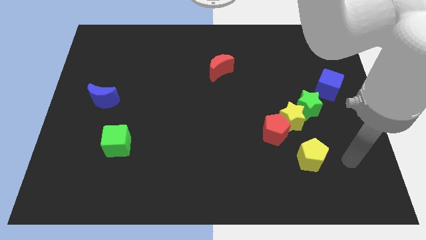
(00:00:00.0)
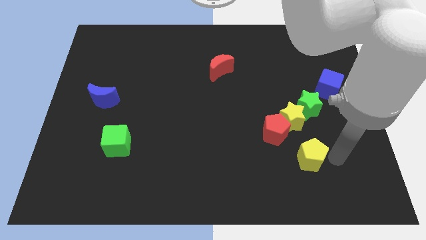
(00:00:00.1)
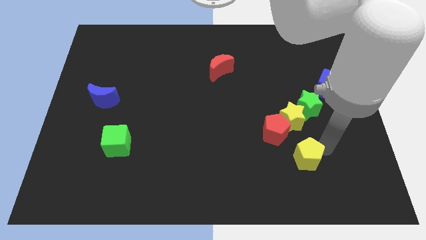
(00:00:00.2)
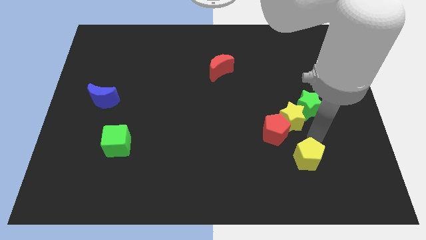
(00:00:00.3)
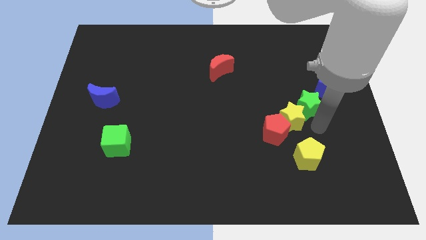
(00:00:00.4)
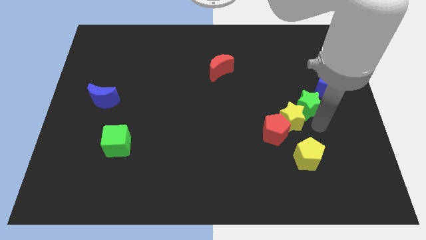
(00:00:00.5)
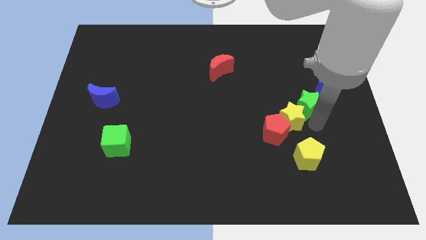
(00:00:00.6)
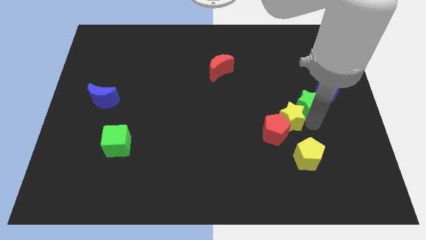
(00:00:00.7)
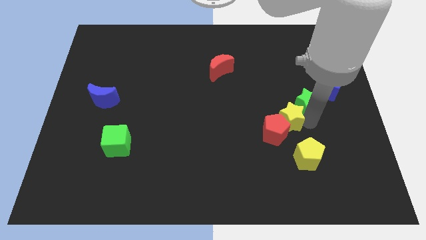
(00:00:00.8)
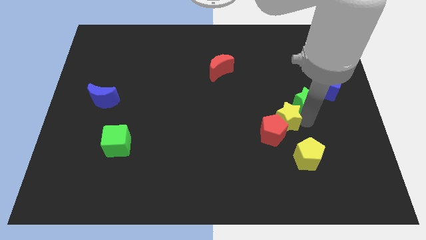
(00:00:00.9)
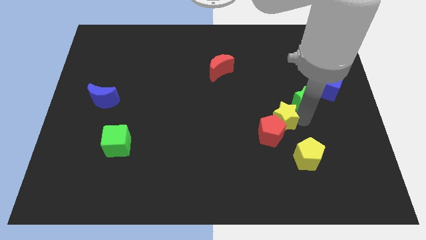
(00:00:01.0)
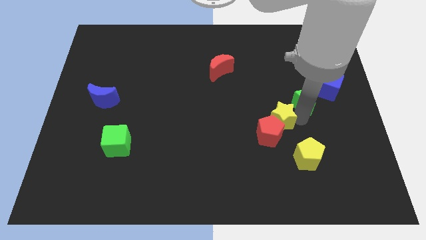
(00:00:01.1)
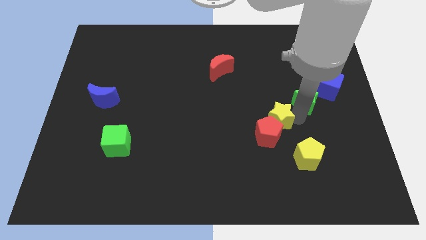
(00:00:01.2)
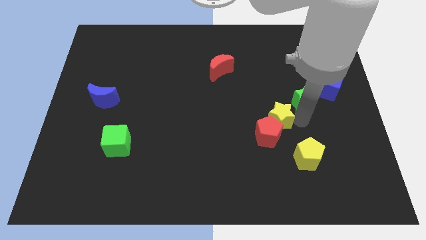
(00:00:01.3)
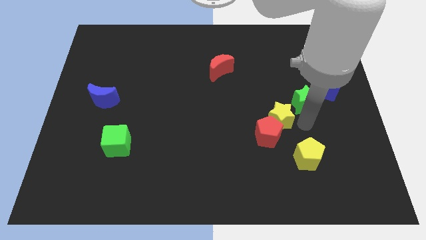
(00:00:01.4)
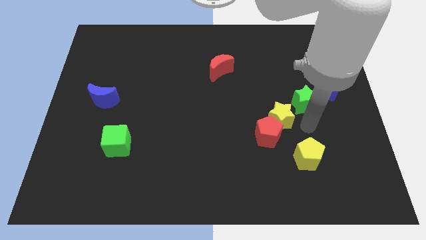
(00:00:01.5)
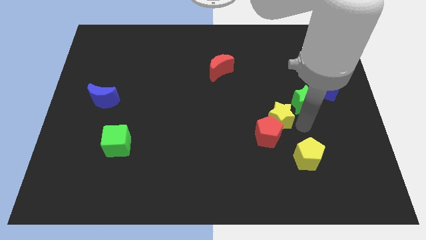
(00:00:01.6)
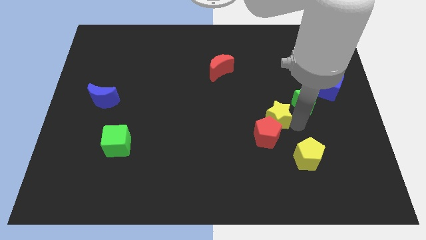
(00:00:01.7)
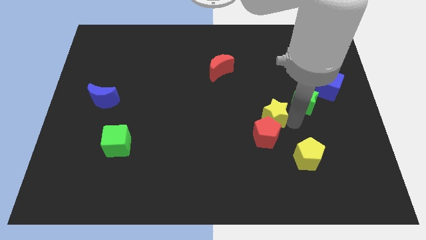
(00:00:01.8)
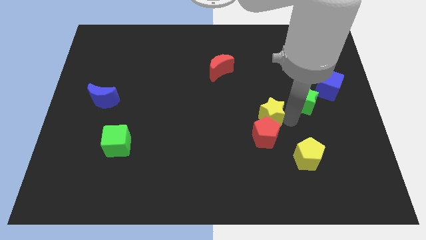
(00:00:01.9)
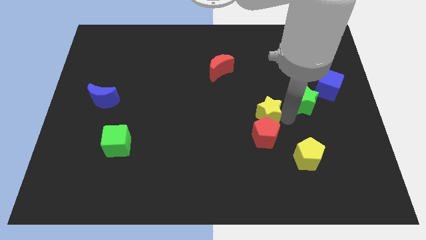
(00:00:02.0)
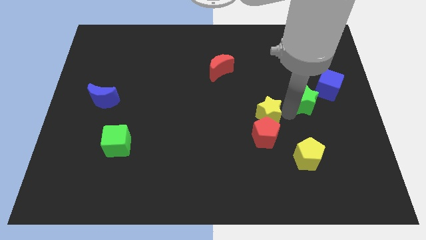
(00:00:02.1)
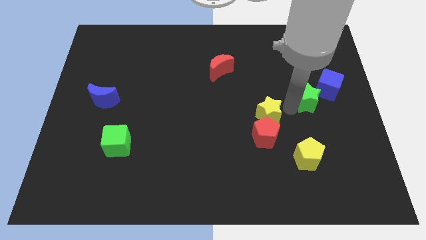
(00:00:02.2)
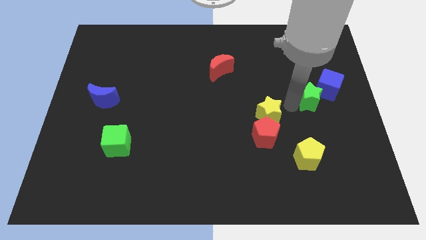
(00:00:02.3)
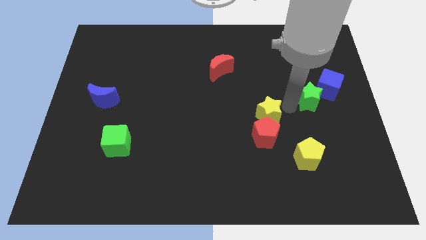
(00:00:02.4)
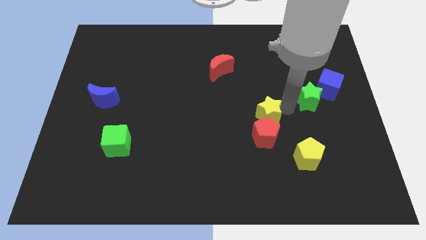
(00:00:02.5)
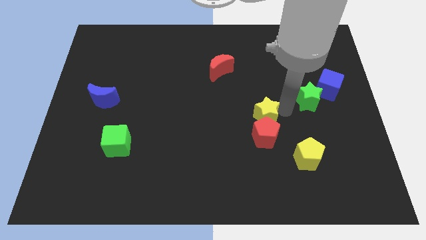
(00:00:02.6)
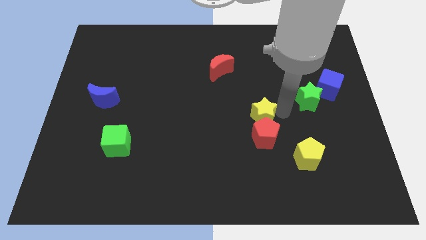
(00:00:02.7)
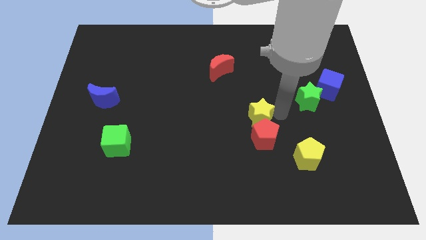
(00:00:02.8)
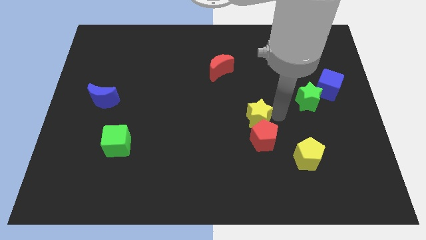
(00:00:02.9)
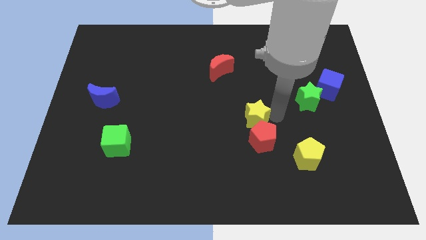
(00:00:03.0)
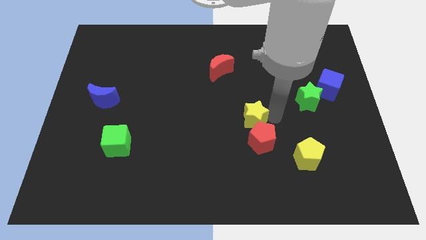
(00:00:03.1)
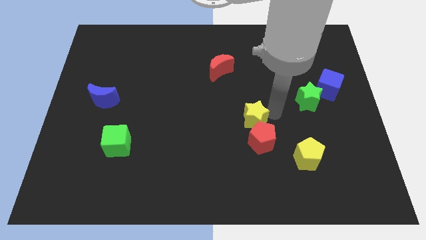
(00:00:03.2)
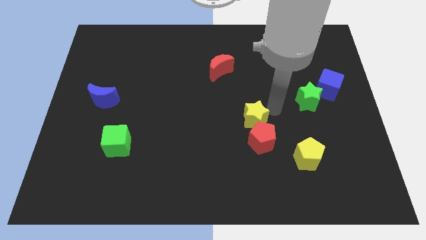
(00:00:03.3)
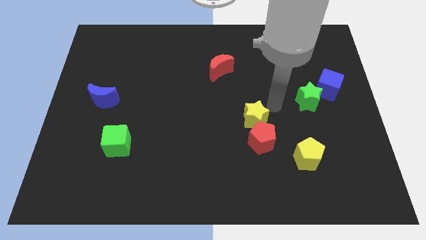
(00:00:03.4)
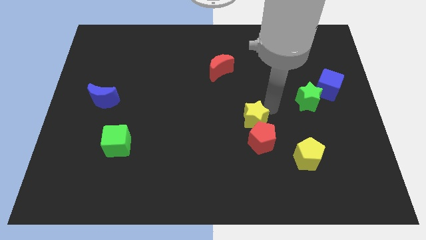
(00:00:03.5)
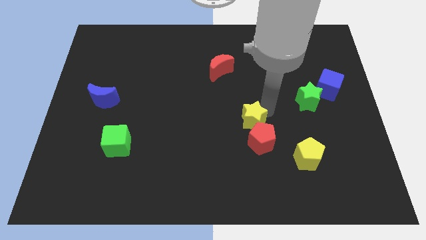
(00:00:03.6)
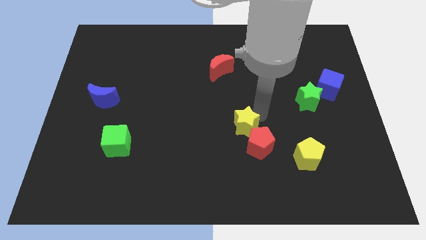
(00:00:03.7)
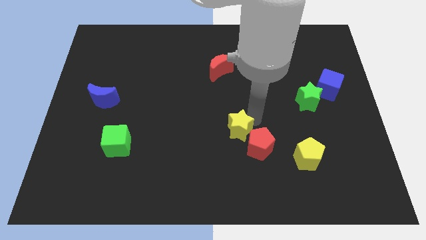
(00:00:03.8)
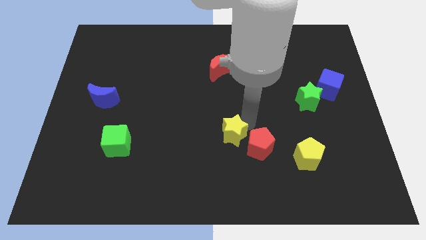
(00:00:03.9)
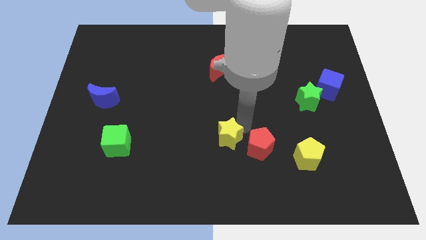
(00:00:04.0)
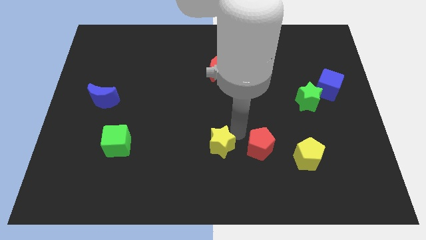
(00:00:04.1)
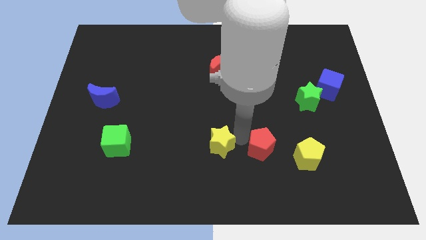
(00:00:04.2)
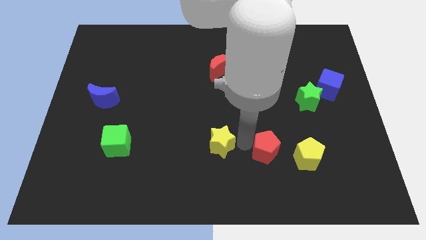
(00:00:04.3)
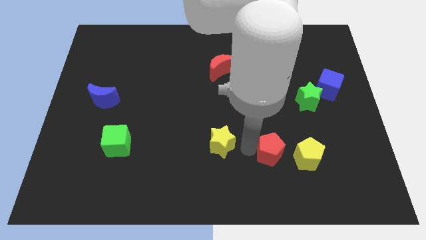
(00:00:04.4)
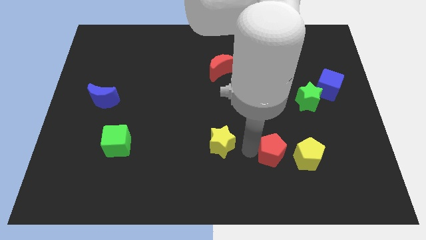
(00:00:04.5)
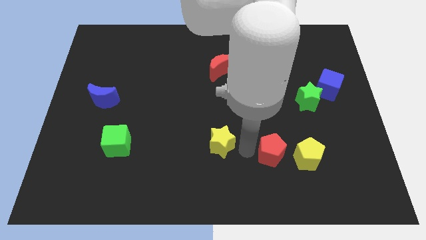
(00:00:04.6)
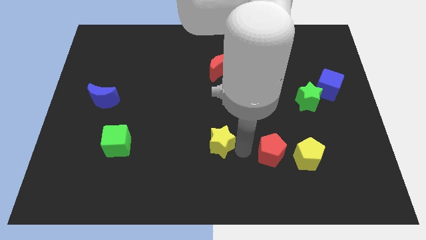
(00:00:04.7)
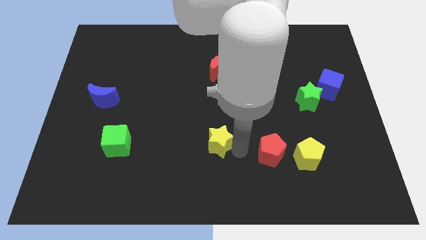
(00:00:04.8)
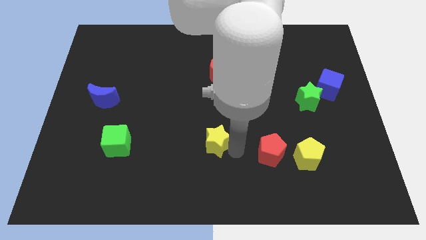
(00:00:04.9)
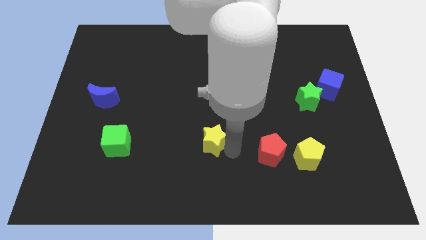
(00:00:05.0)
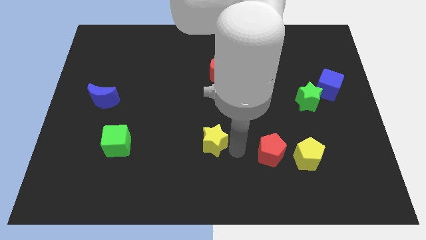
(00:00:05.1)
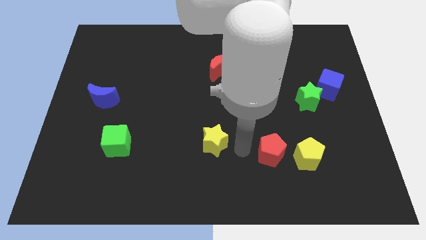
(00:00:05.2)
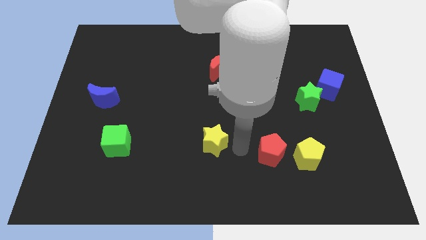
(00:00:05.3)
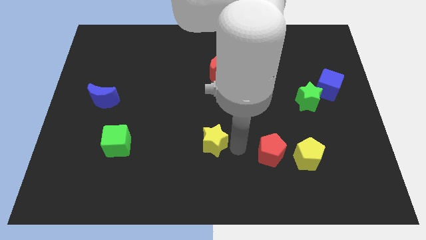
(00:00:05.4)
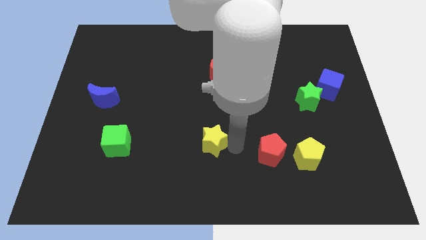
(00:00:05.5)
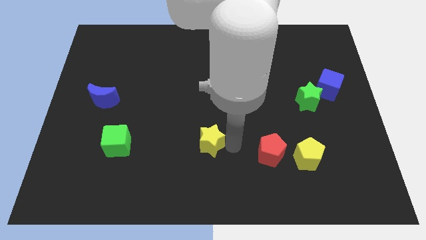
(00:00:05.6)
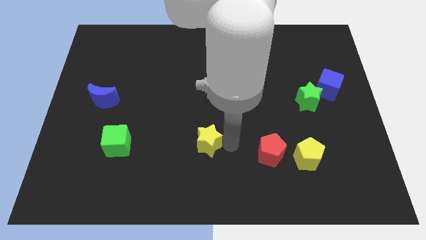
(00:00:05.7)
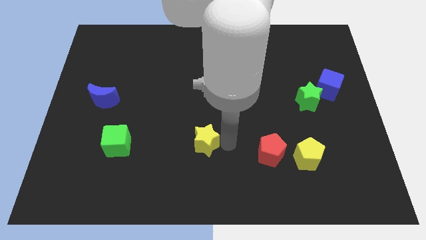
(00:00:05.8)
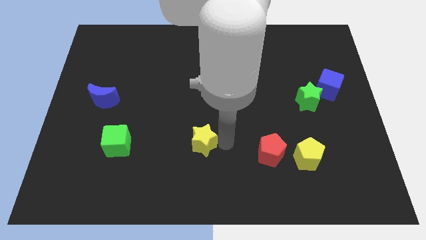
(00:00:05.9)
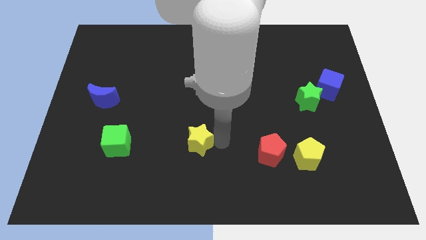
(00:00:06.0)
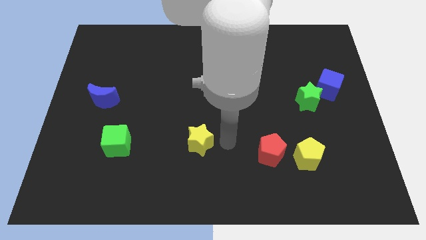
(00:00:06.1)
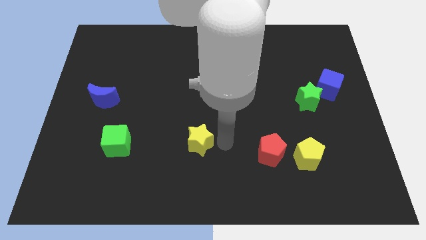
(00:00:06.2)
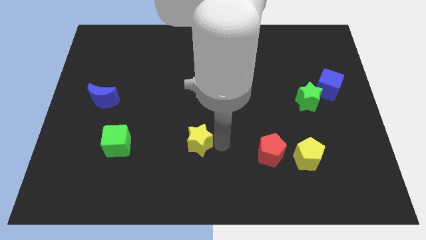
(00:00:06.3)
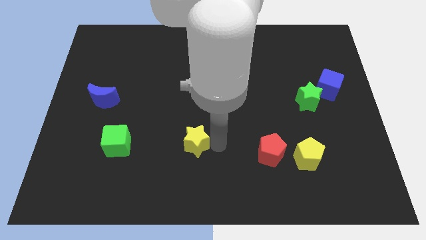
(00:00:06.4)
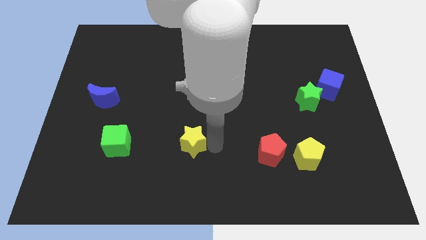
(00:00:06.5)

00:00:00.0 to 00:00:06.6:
put the yellow star to the right of the green cube

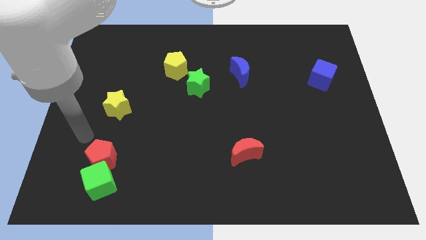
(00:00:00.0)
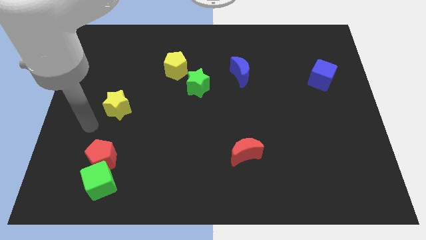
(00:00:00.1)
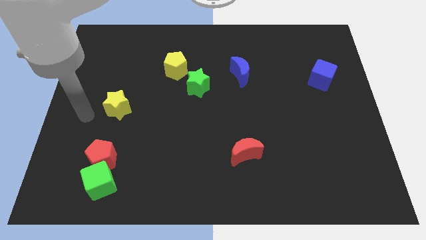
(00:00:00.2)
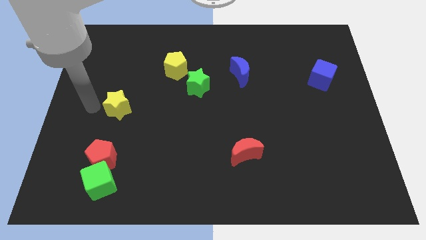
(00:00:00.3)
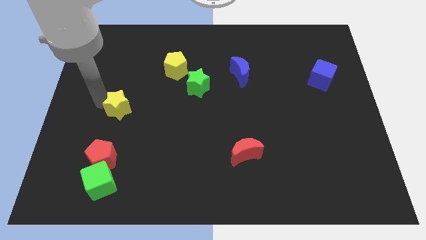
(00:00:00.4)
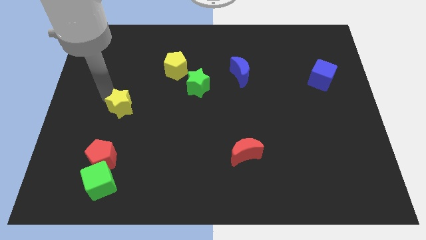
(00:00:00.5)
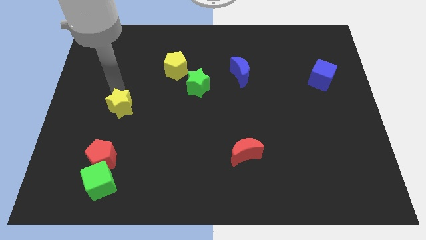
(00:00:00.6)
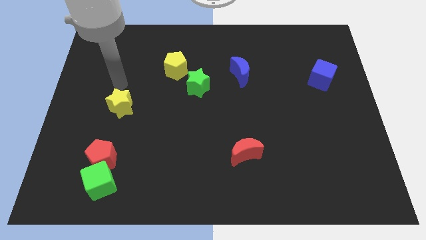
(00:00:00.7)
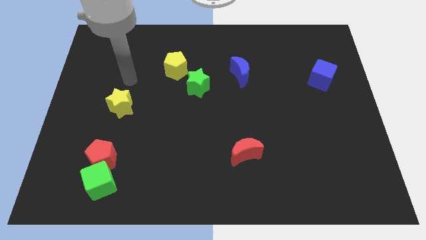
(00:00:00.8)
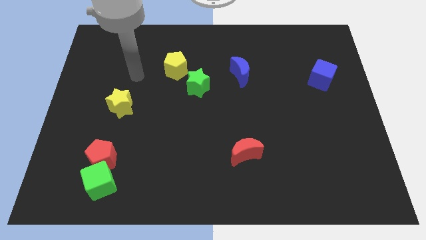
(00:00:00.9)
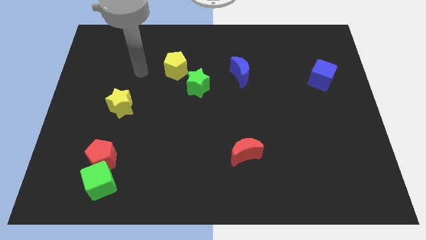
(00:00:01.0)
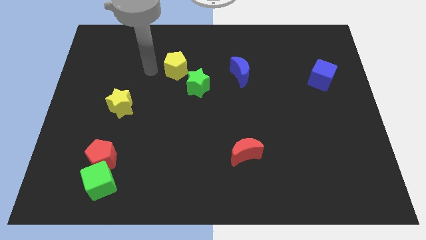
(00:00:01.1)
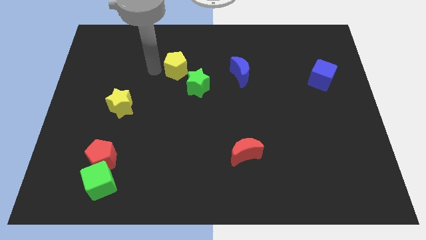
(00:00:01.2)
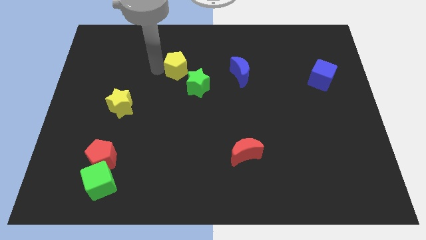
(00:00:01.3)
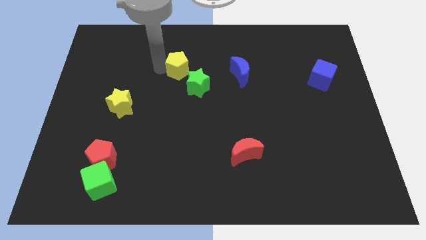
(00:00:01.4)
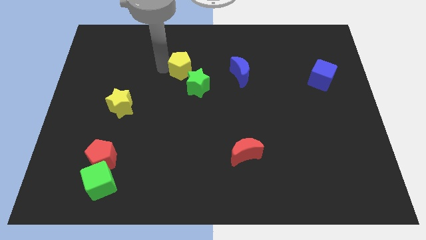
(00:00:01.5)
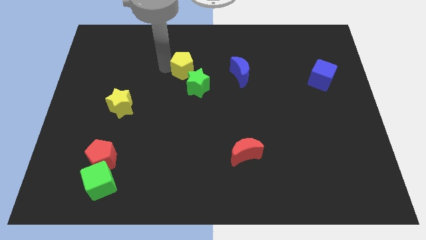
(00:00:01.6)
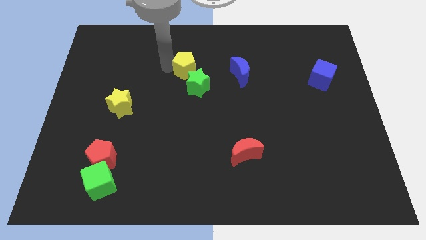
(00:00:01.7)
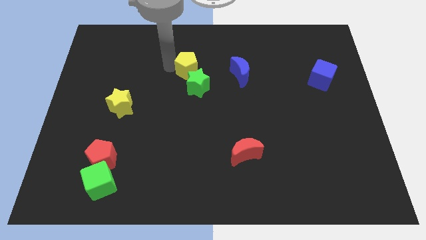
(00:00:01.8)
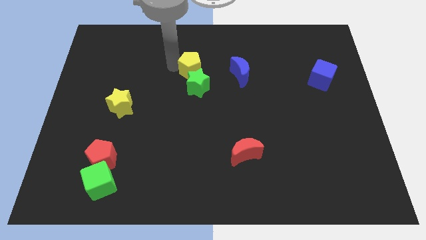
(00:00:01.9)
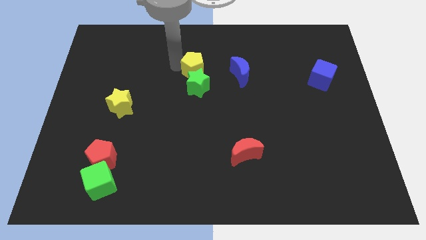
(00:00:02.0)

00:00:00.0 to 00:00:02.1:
slide the yellow pentagon diagonally up and to the right of the green star
